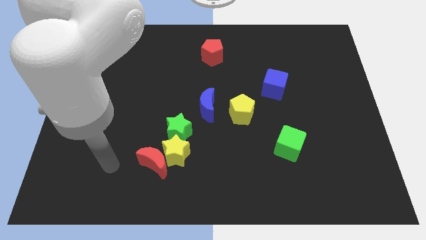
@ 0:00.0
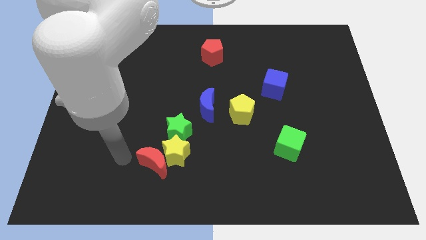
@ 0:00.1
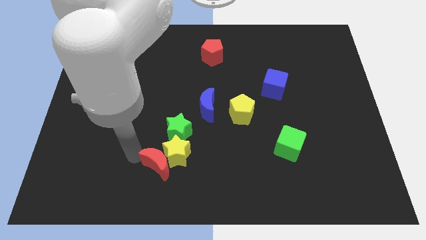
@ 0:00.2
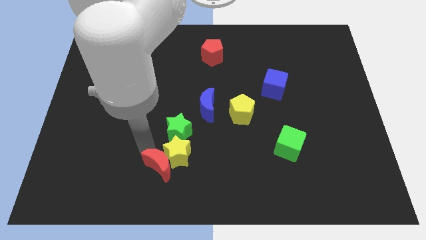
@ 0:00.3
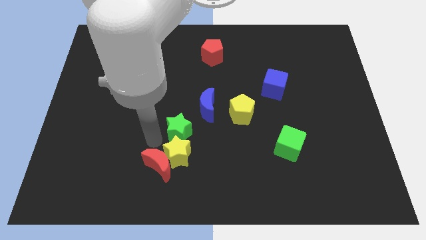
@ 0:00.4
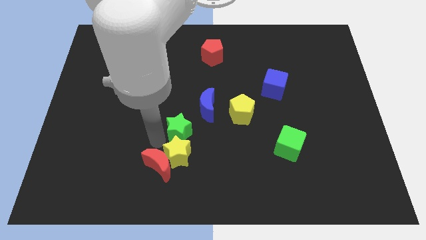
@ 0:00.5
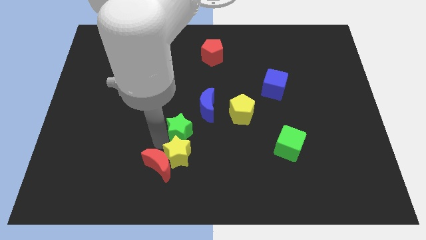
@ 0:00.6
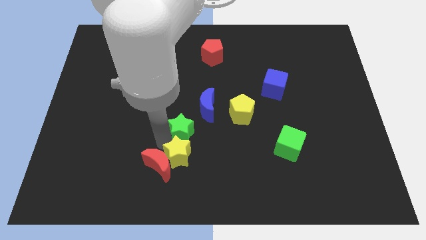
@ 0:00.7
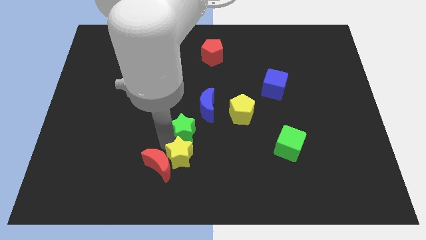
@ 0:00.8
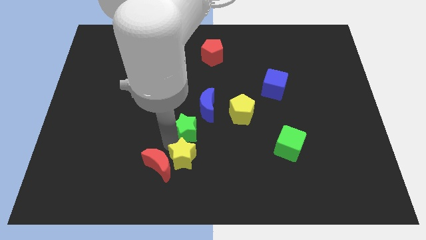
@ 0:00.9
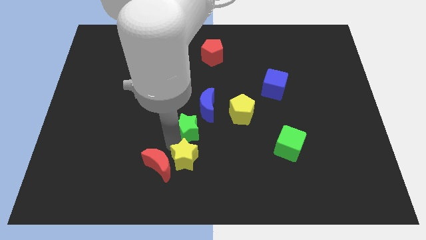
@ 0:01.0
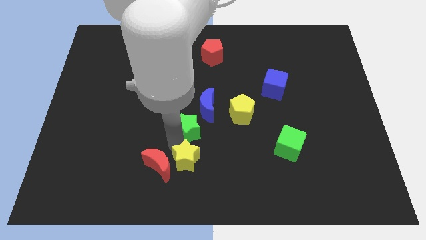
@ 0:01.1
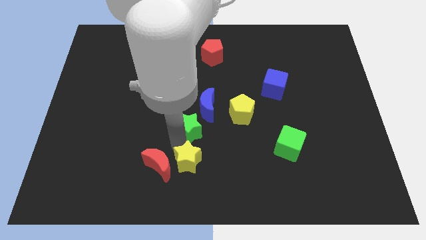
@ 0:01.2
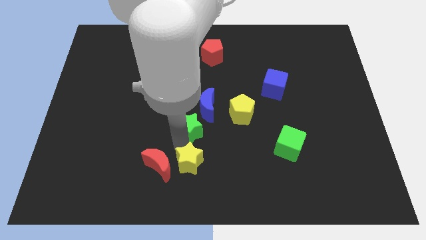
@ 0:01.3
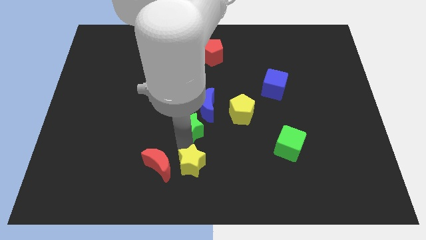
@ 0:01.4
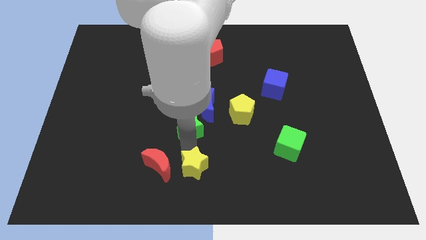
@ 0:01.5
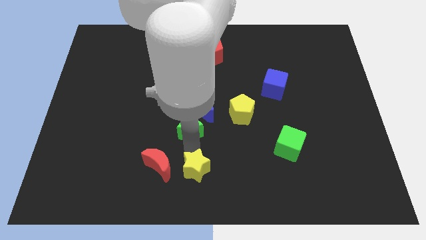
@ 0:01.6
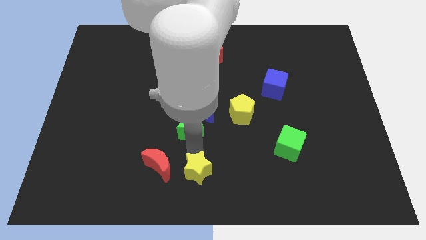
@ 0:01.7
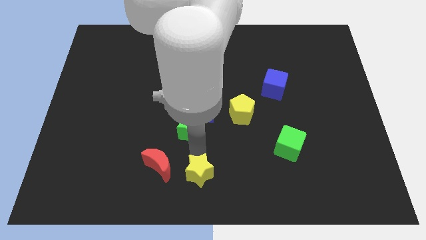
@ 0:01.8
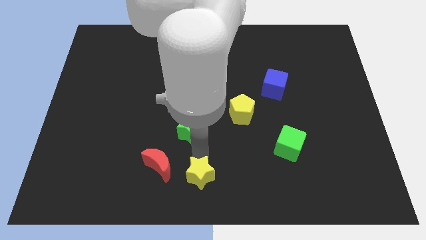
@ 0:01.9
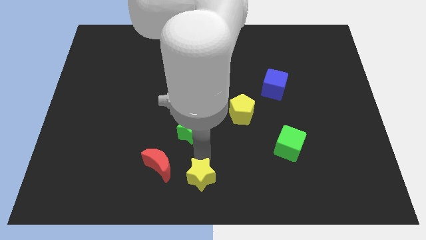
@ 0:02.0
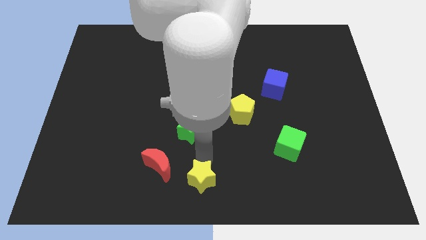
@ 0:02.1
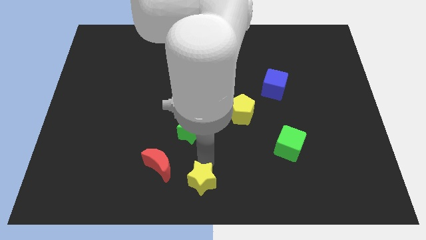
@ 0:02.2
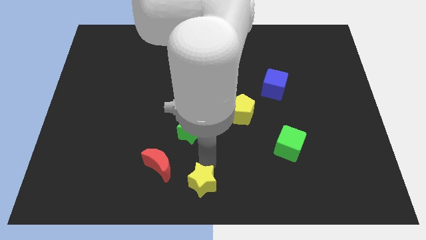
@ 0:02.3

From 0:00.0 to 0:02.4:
move the yellow star away from the red moon and green star

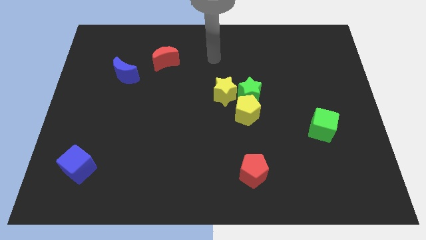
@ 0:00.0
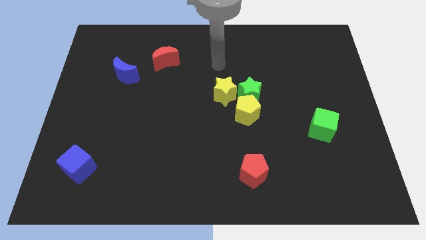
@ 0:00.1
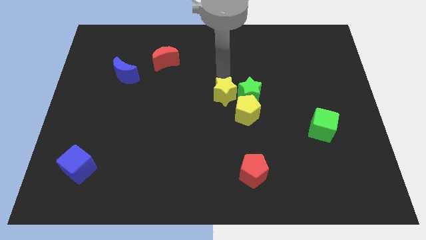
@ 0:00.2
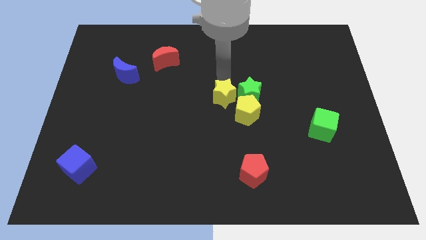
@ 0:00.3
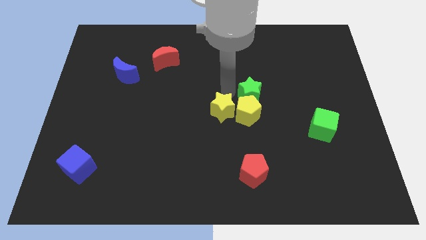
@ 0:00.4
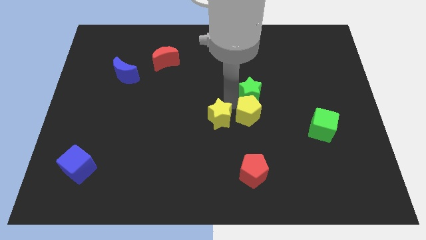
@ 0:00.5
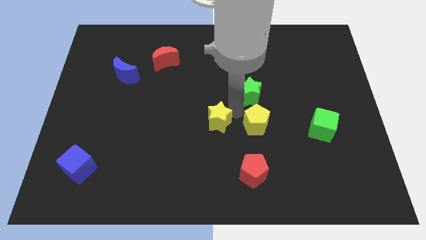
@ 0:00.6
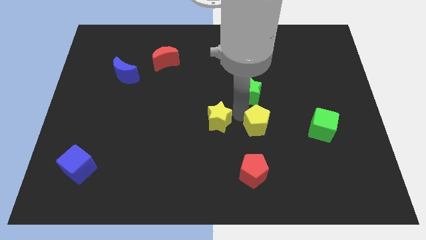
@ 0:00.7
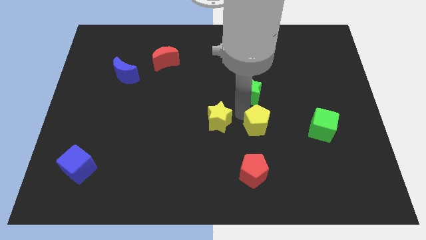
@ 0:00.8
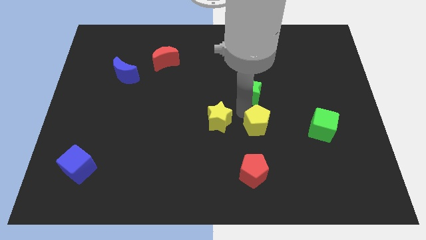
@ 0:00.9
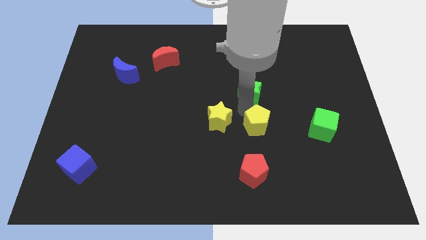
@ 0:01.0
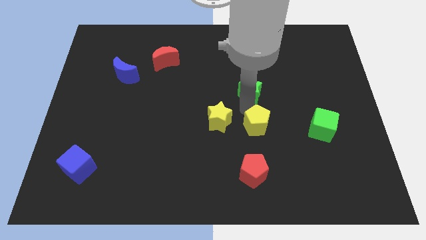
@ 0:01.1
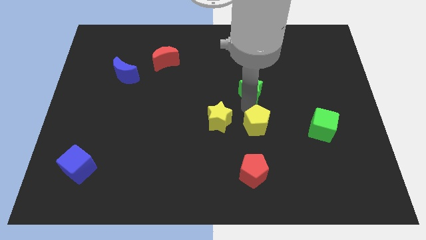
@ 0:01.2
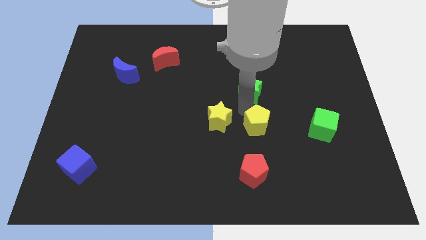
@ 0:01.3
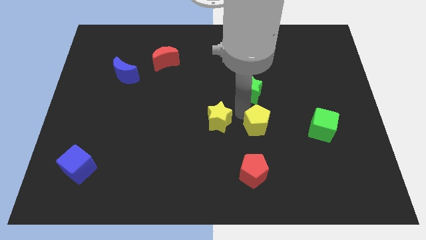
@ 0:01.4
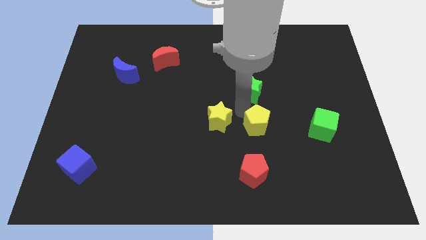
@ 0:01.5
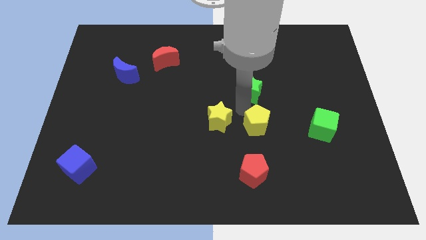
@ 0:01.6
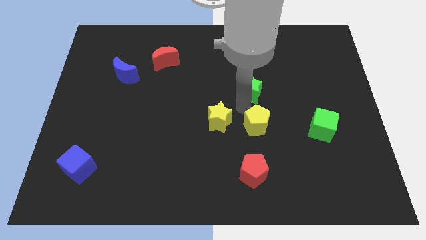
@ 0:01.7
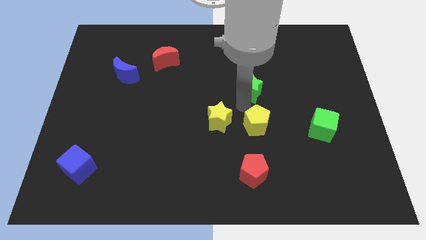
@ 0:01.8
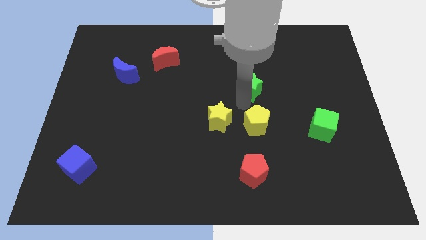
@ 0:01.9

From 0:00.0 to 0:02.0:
move the green star away from the yellow pentagon and yellow star

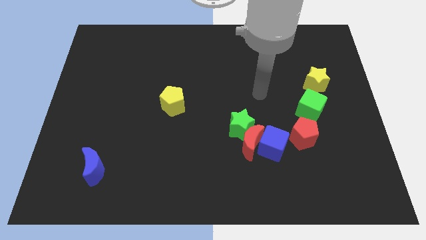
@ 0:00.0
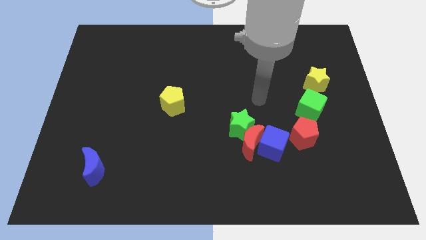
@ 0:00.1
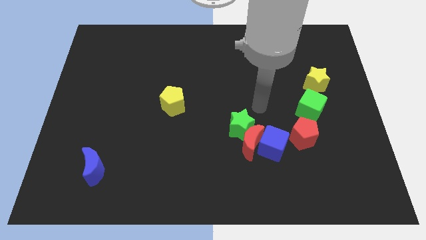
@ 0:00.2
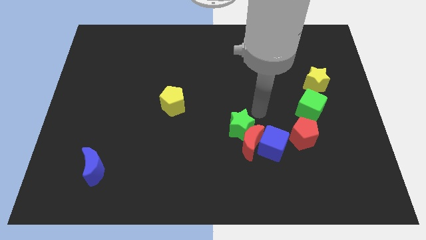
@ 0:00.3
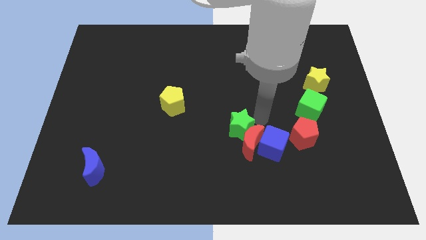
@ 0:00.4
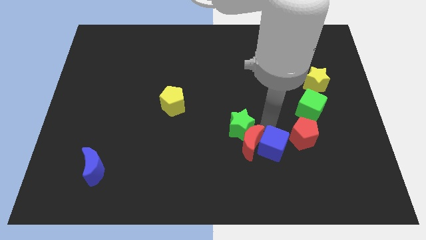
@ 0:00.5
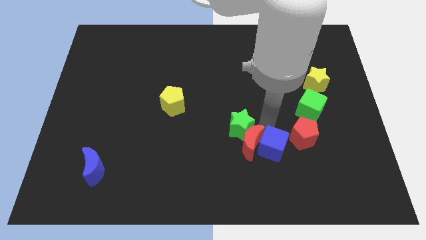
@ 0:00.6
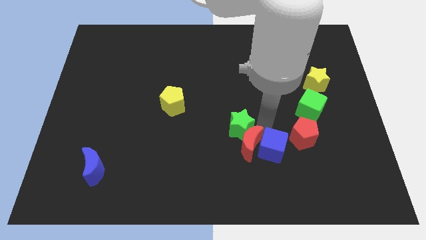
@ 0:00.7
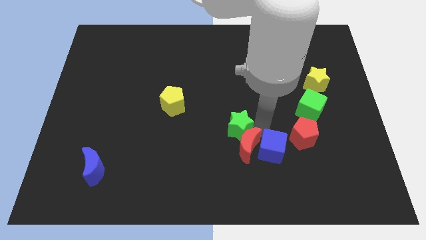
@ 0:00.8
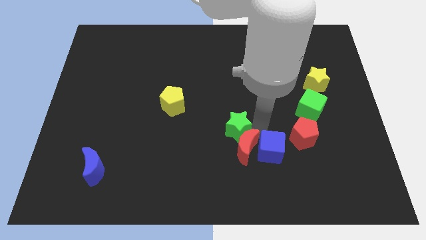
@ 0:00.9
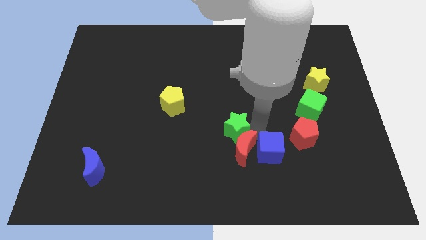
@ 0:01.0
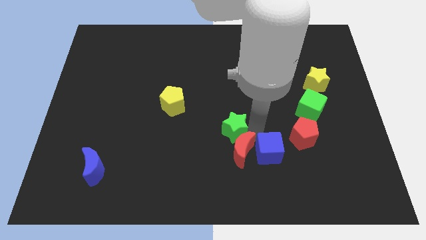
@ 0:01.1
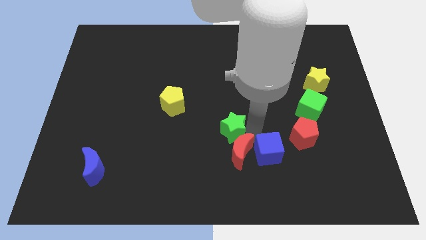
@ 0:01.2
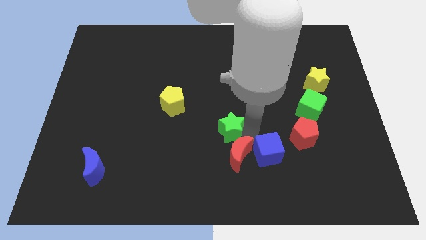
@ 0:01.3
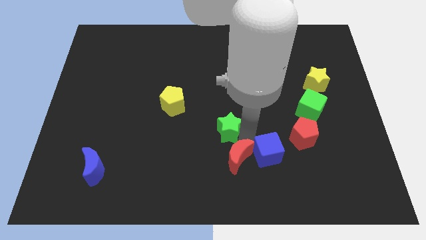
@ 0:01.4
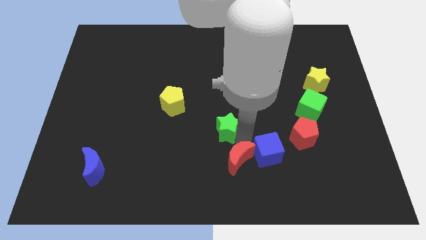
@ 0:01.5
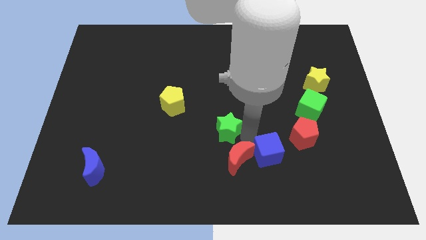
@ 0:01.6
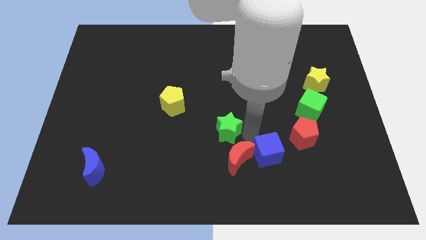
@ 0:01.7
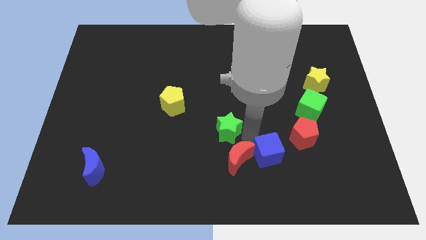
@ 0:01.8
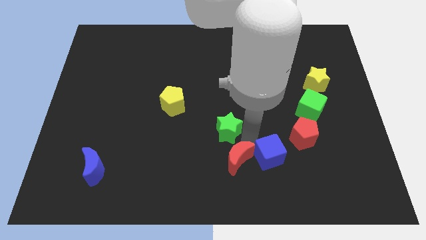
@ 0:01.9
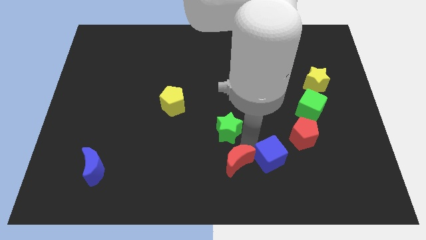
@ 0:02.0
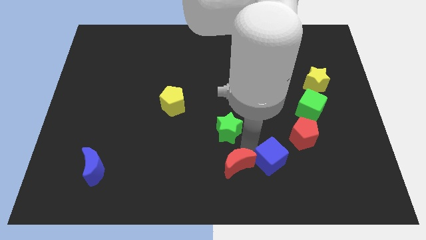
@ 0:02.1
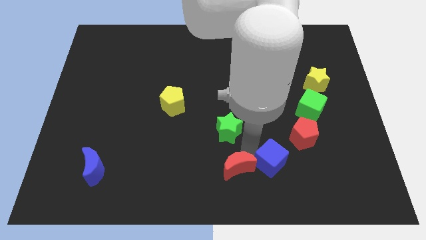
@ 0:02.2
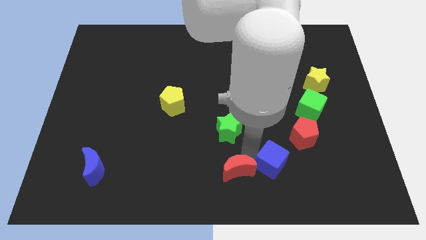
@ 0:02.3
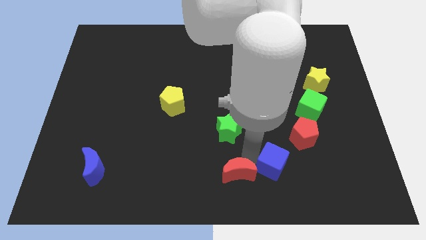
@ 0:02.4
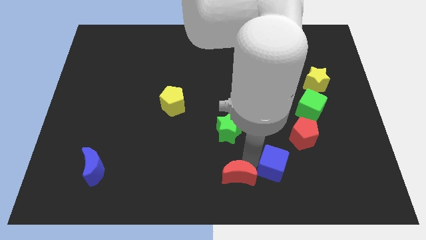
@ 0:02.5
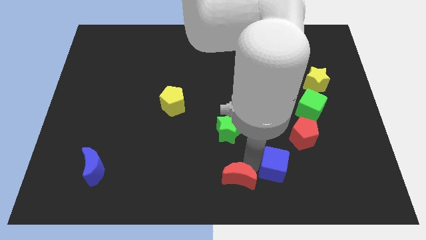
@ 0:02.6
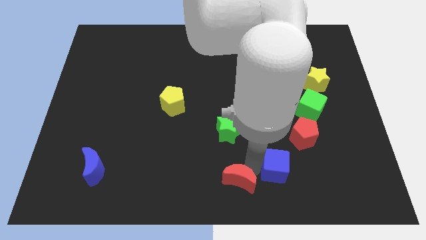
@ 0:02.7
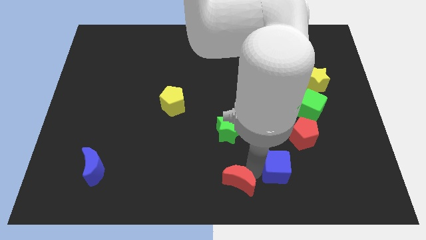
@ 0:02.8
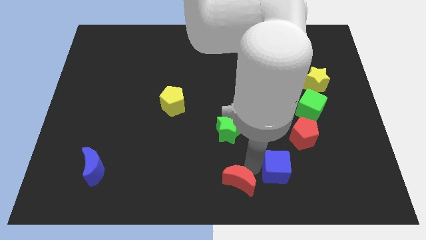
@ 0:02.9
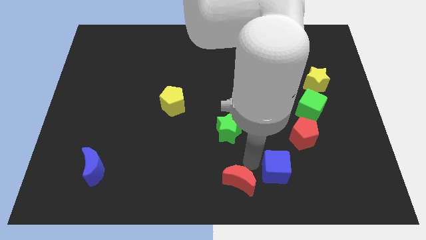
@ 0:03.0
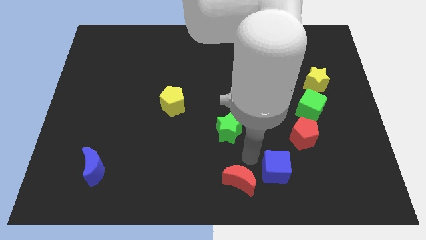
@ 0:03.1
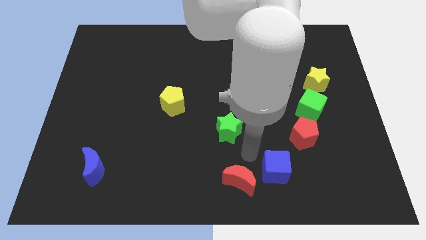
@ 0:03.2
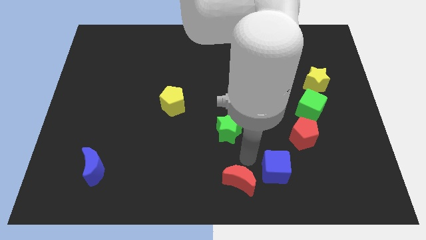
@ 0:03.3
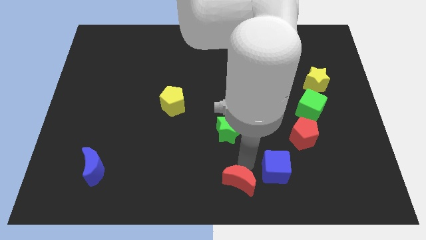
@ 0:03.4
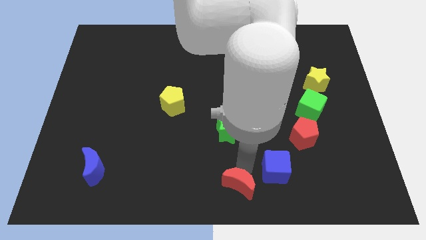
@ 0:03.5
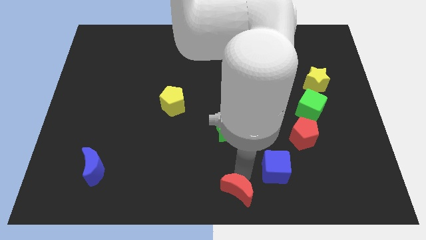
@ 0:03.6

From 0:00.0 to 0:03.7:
move the red moon away from the blue cube and green star

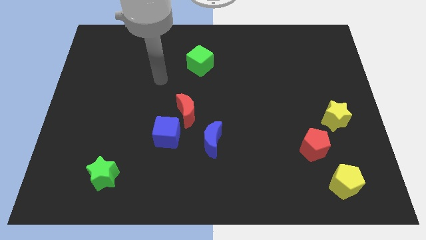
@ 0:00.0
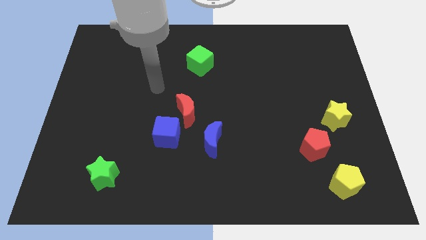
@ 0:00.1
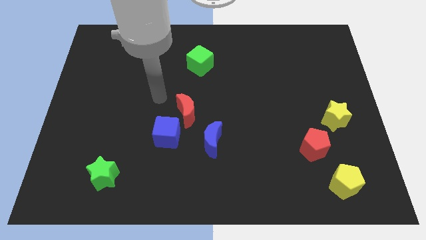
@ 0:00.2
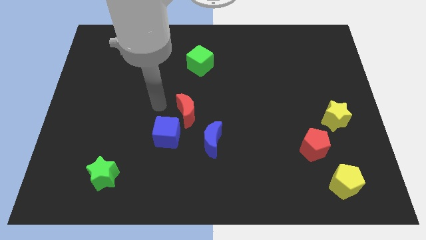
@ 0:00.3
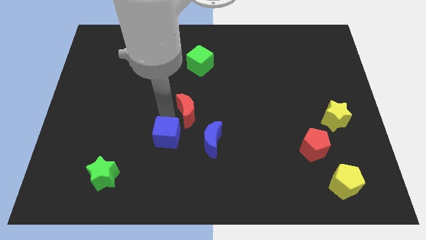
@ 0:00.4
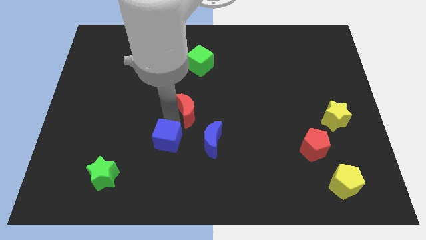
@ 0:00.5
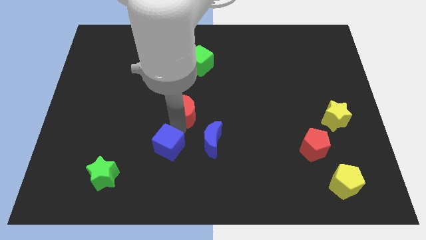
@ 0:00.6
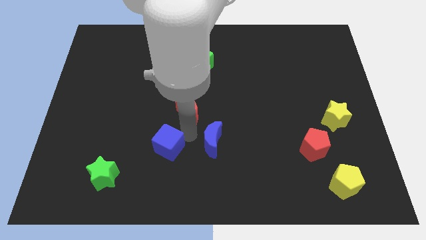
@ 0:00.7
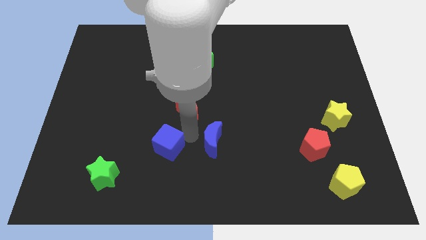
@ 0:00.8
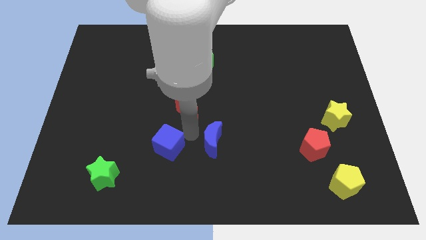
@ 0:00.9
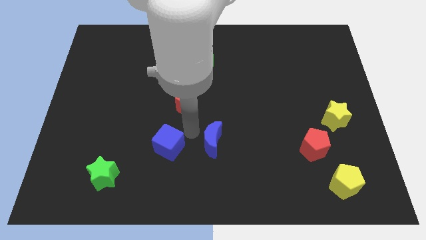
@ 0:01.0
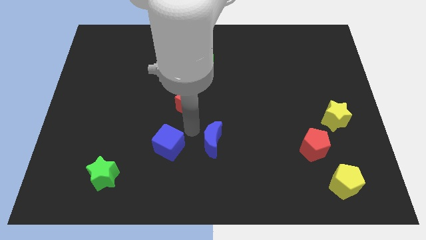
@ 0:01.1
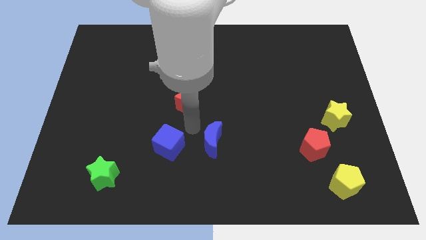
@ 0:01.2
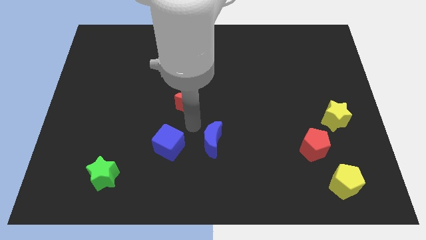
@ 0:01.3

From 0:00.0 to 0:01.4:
move the red moon away from the blue cube and blue moon
